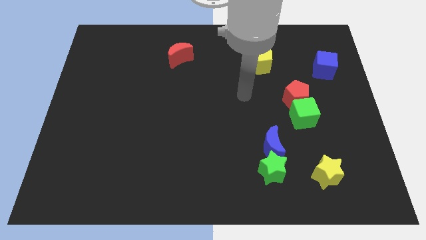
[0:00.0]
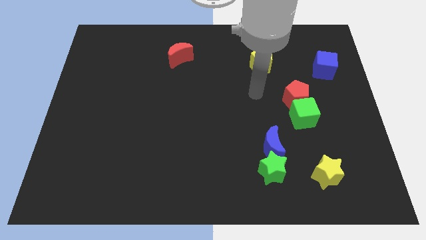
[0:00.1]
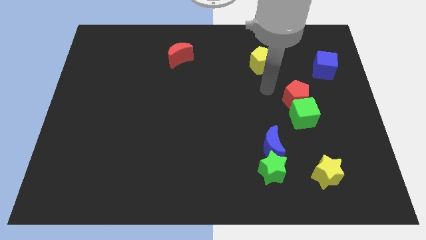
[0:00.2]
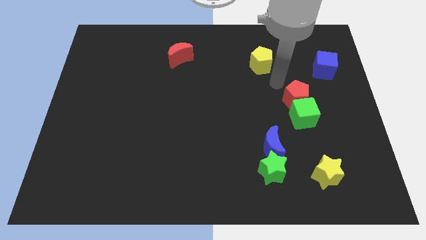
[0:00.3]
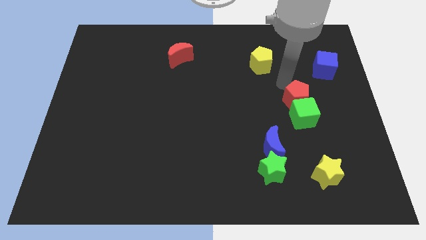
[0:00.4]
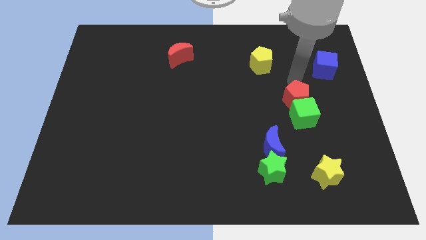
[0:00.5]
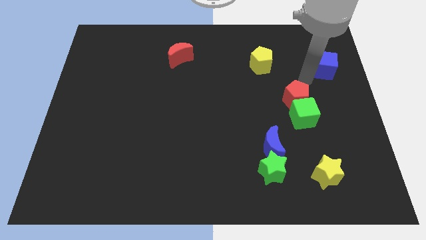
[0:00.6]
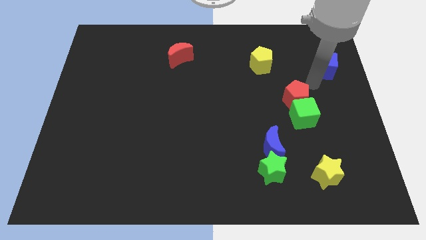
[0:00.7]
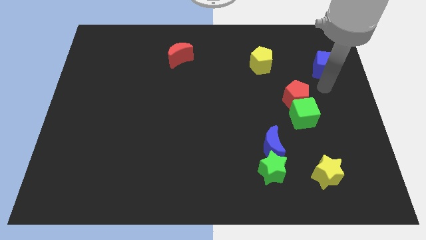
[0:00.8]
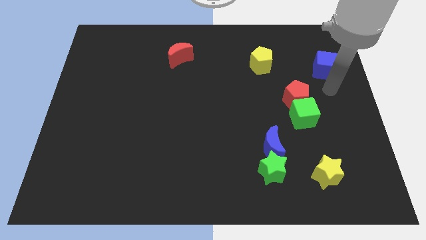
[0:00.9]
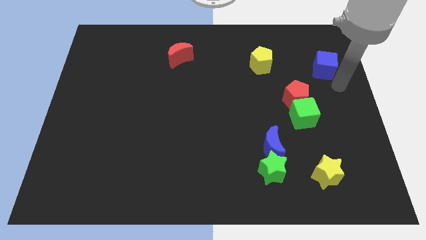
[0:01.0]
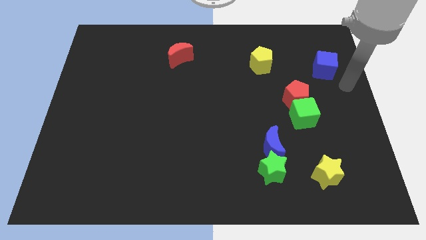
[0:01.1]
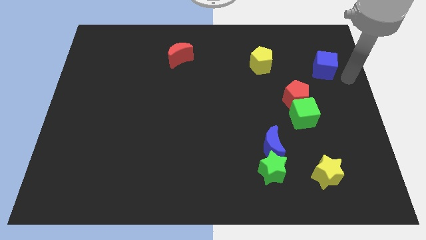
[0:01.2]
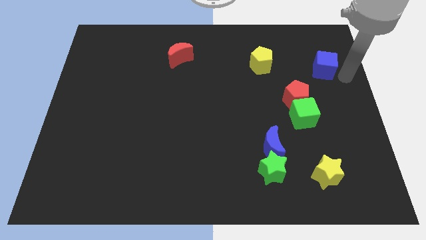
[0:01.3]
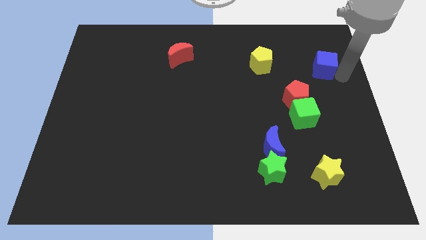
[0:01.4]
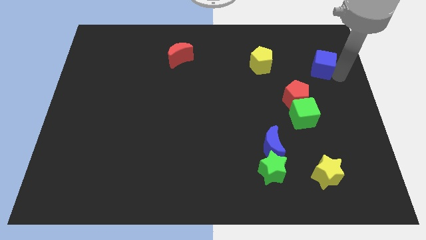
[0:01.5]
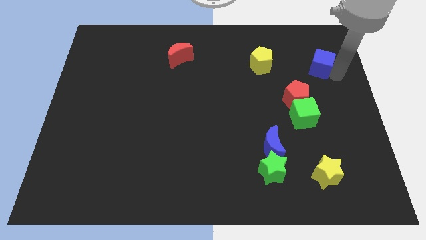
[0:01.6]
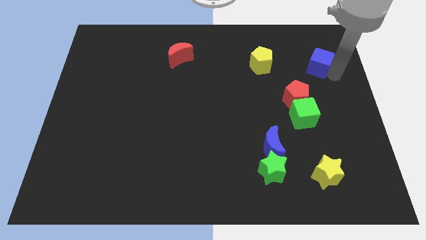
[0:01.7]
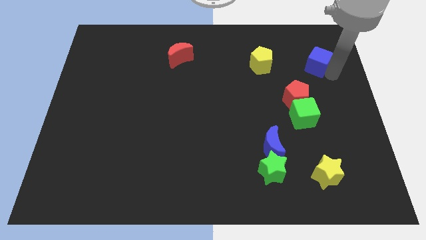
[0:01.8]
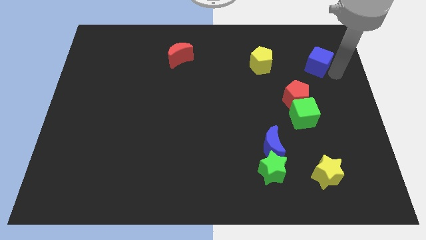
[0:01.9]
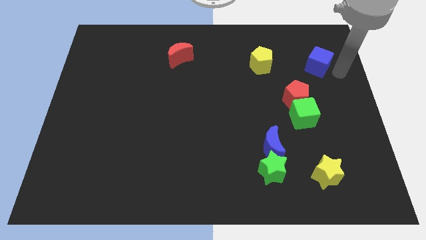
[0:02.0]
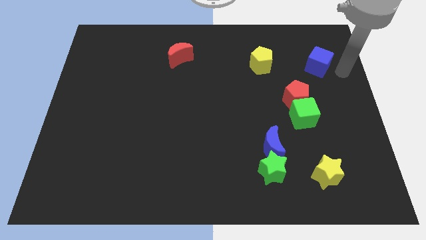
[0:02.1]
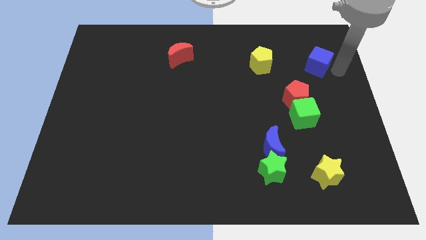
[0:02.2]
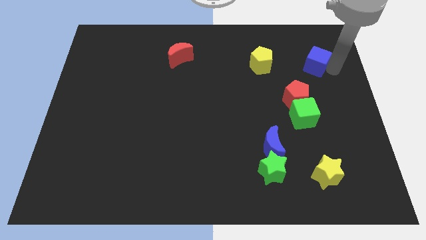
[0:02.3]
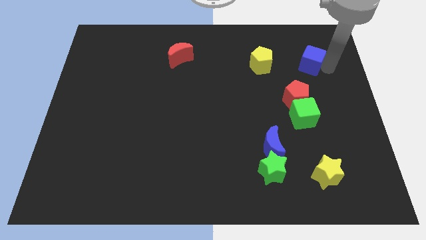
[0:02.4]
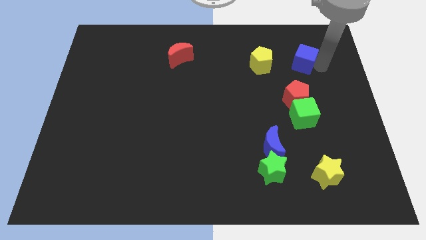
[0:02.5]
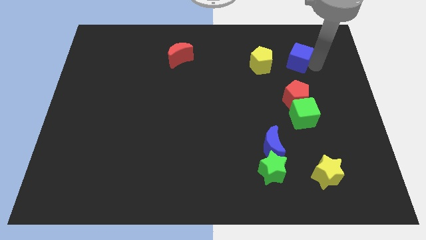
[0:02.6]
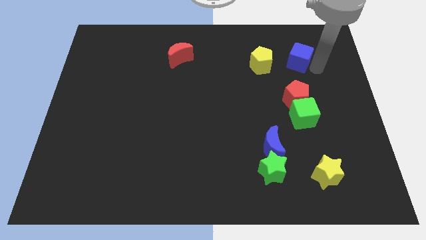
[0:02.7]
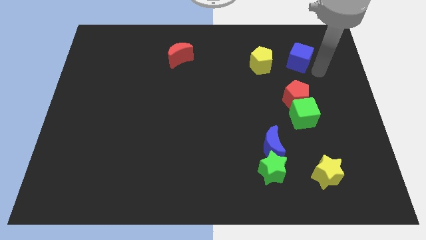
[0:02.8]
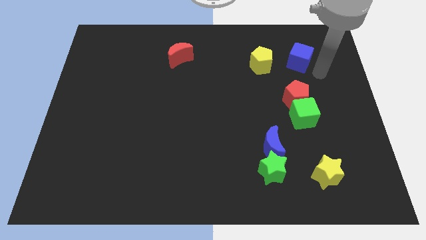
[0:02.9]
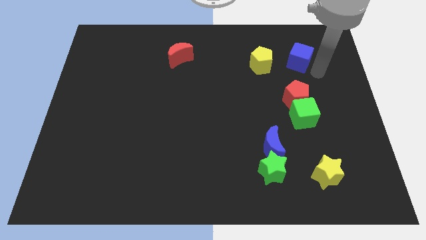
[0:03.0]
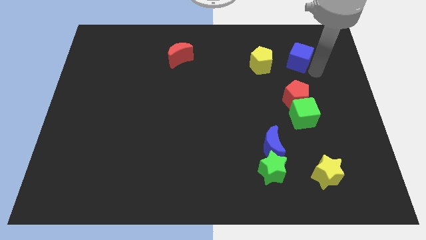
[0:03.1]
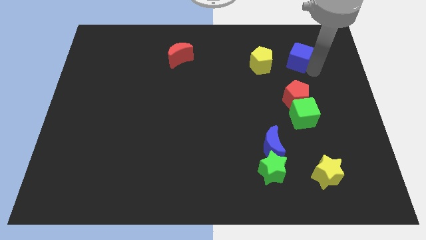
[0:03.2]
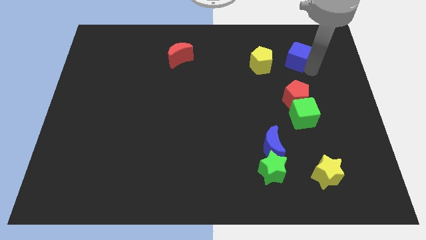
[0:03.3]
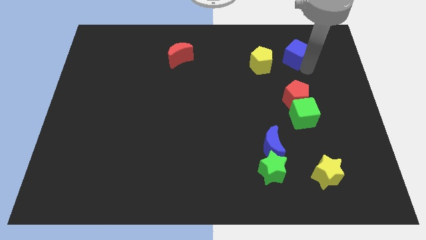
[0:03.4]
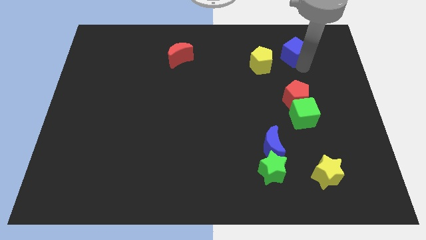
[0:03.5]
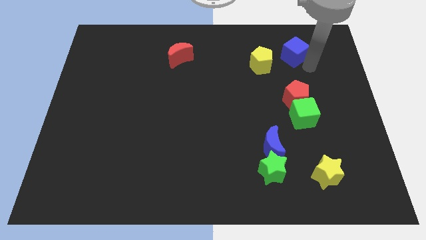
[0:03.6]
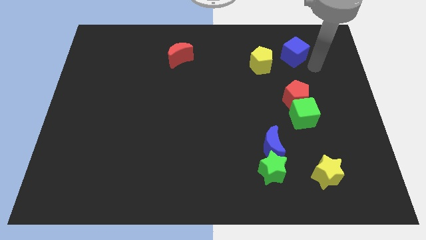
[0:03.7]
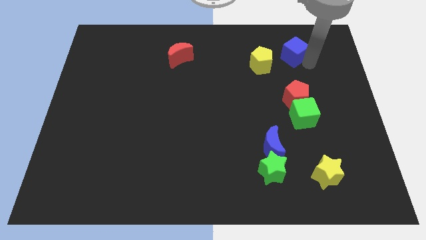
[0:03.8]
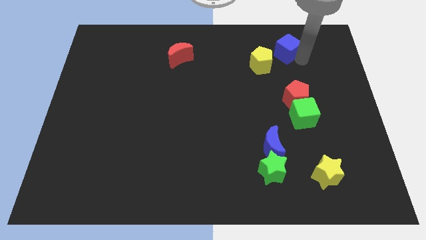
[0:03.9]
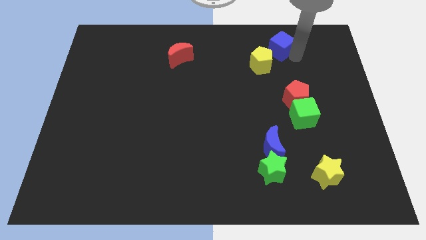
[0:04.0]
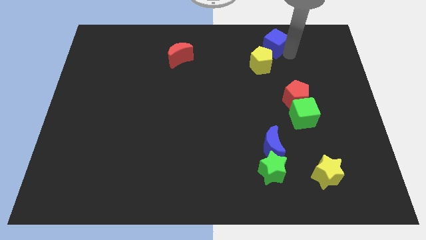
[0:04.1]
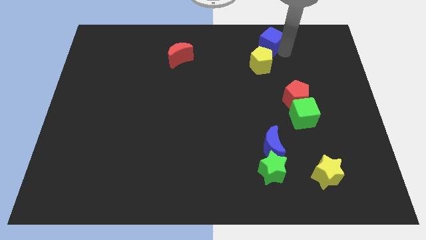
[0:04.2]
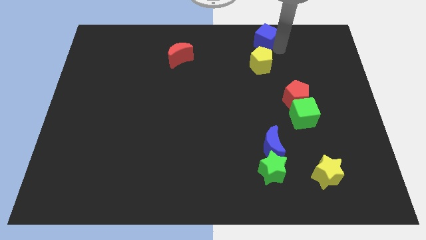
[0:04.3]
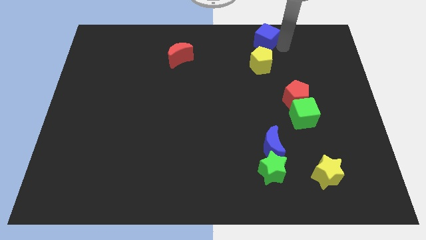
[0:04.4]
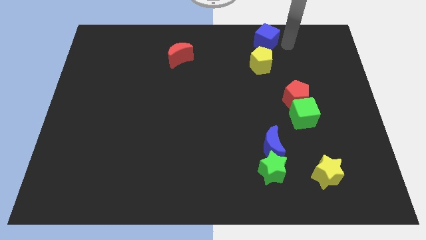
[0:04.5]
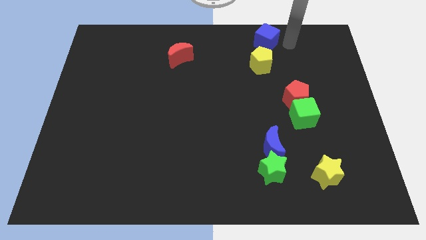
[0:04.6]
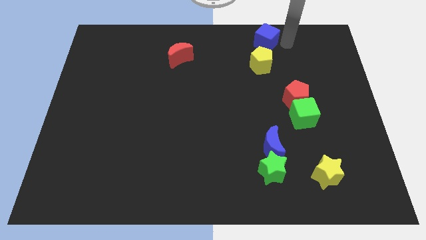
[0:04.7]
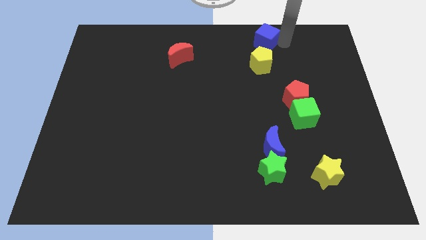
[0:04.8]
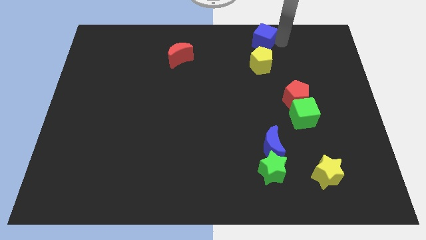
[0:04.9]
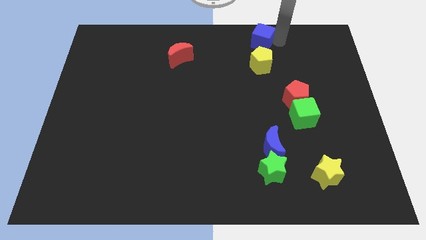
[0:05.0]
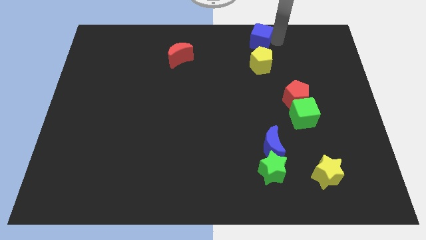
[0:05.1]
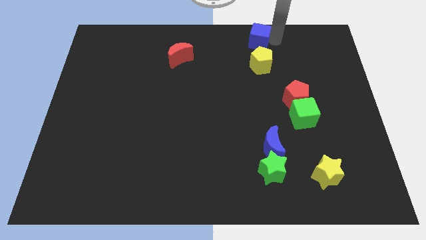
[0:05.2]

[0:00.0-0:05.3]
push the blue cube to the top
